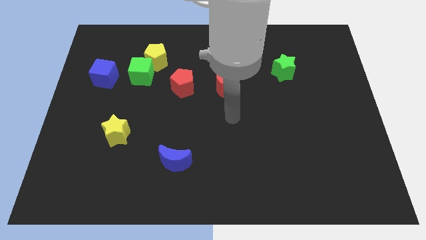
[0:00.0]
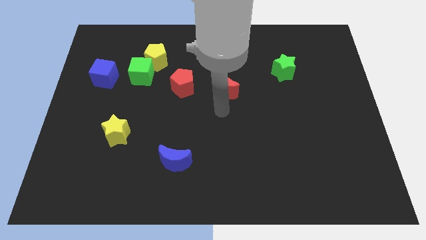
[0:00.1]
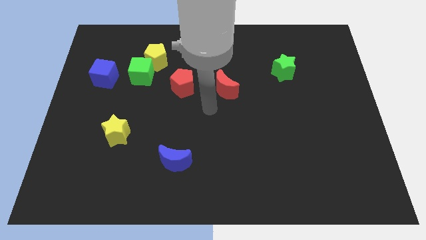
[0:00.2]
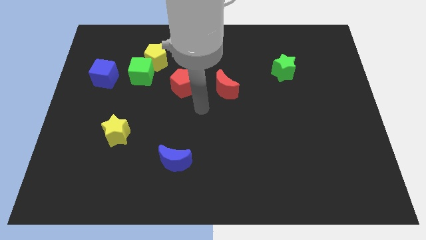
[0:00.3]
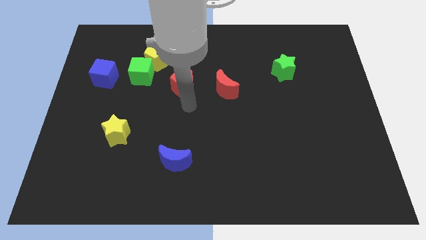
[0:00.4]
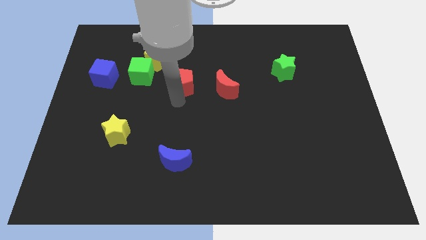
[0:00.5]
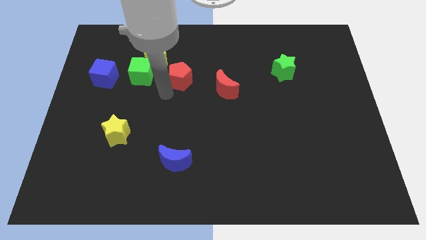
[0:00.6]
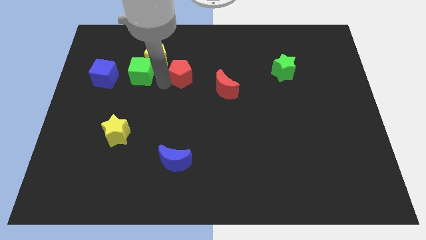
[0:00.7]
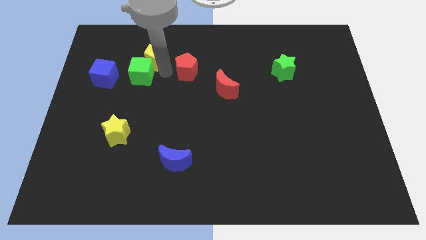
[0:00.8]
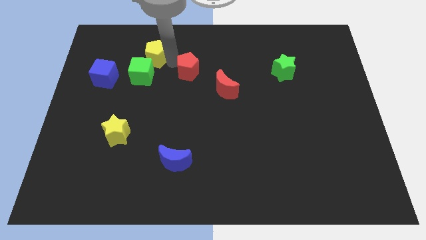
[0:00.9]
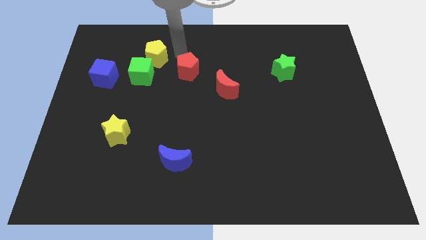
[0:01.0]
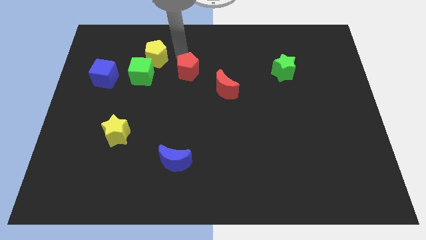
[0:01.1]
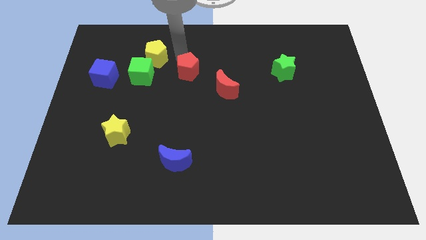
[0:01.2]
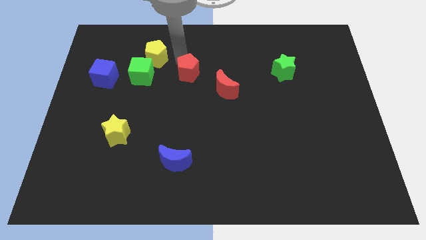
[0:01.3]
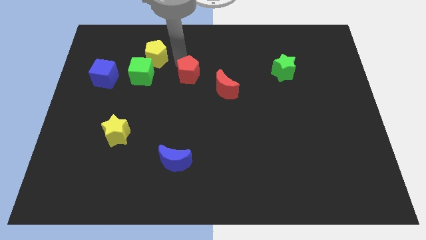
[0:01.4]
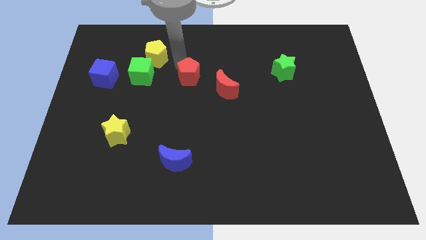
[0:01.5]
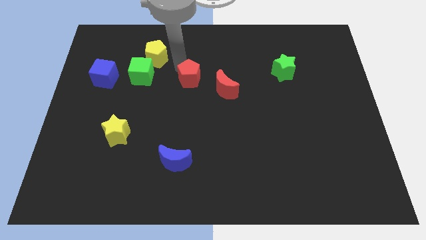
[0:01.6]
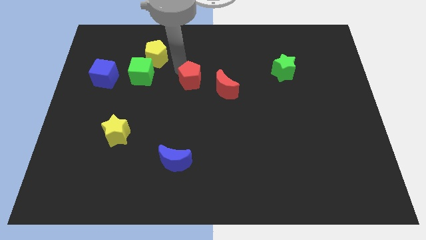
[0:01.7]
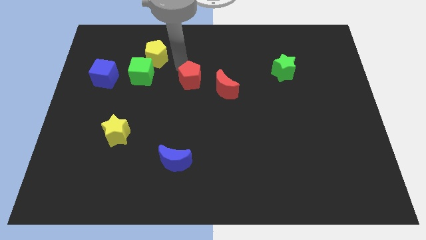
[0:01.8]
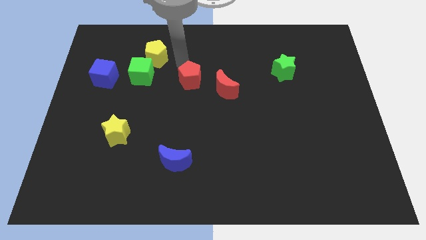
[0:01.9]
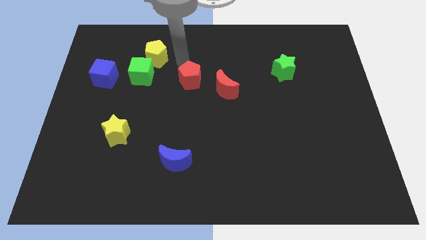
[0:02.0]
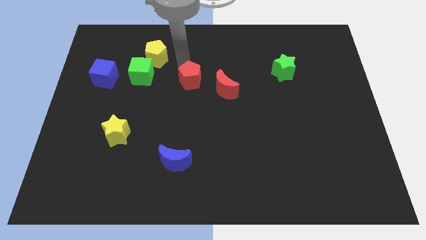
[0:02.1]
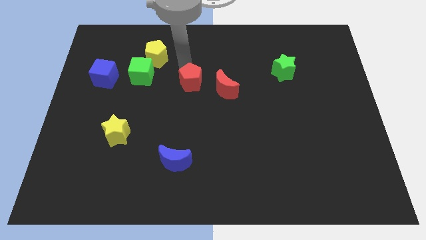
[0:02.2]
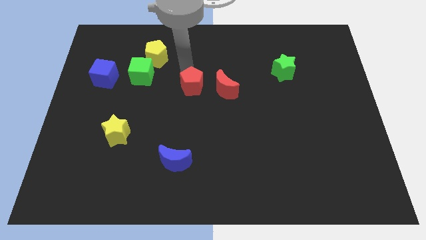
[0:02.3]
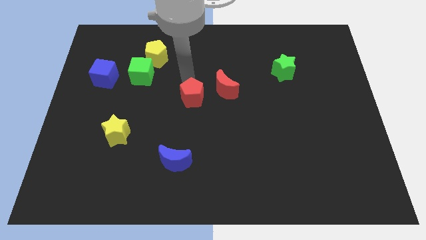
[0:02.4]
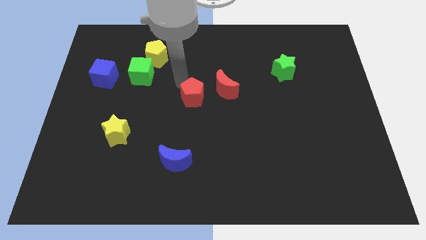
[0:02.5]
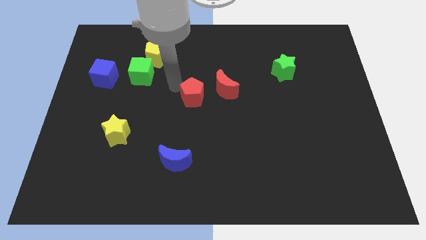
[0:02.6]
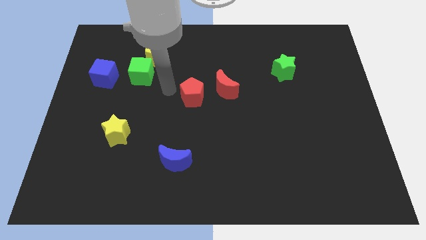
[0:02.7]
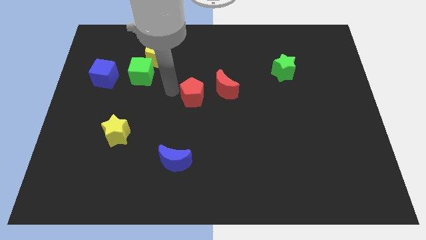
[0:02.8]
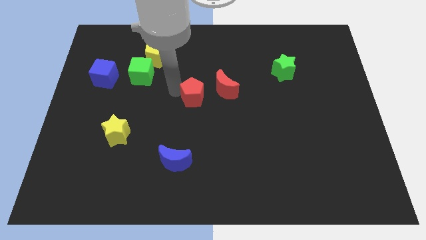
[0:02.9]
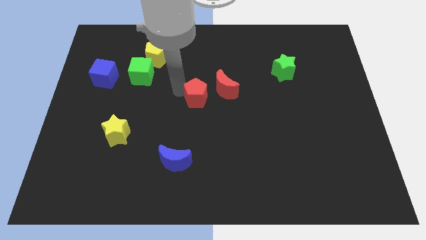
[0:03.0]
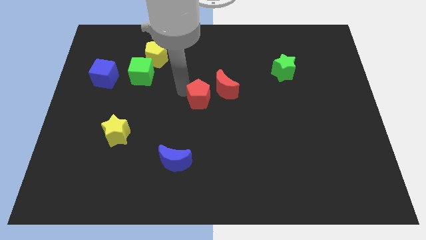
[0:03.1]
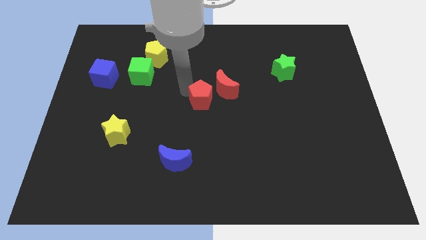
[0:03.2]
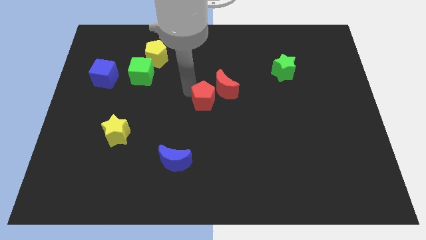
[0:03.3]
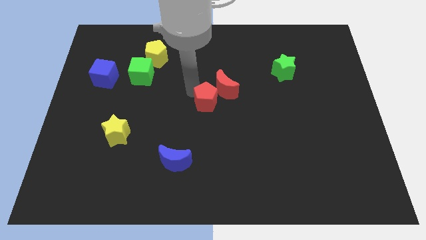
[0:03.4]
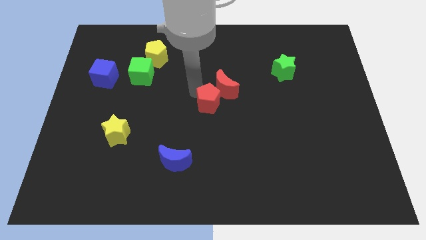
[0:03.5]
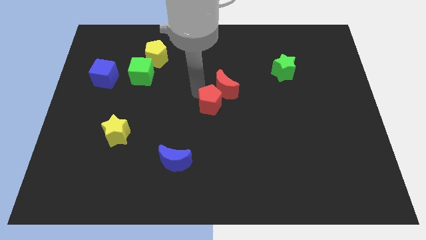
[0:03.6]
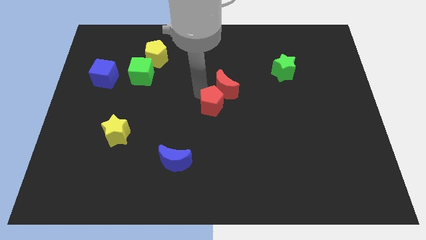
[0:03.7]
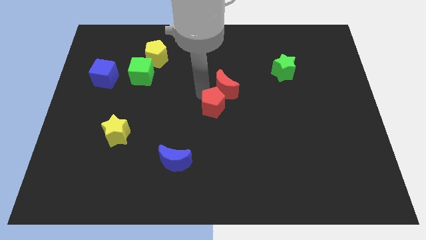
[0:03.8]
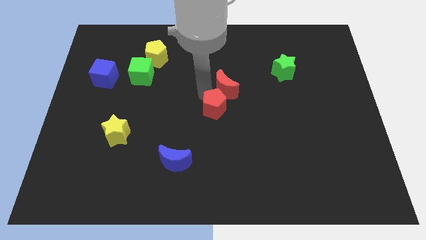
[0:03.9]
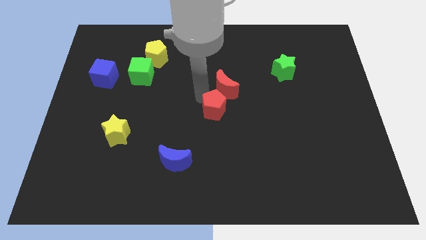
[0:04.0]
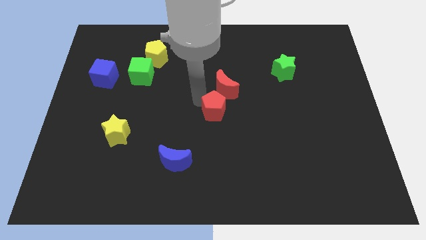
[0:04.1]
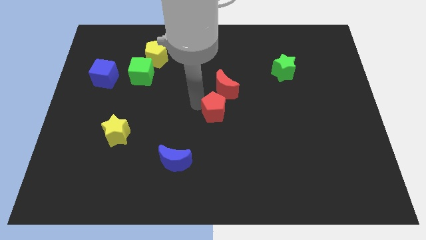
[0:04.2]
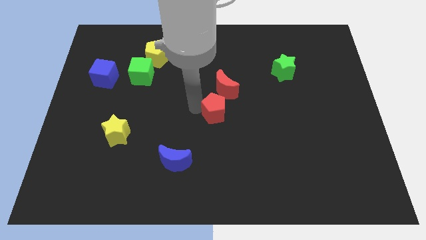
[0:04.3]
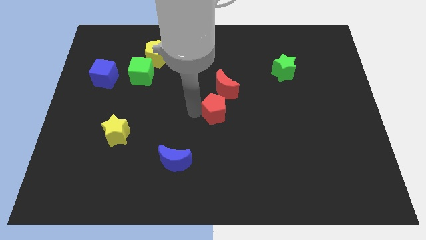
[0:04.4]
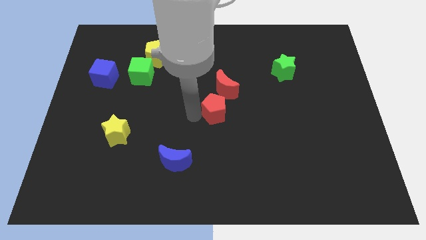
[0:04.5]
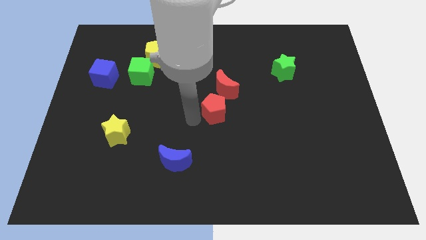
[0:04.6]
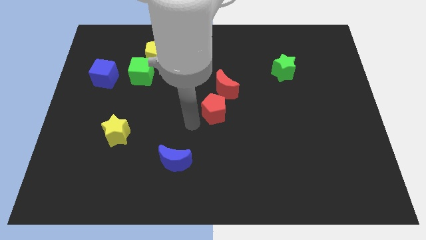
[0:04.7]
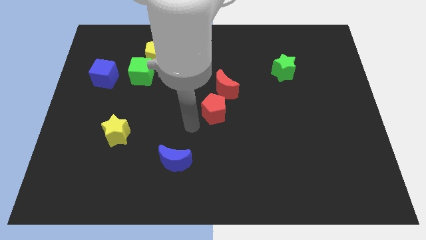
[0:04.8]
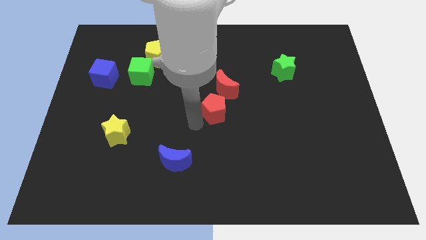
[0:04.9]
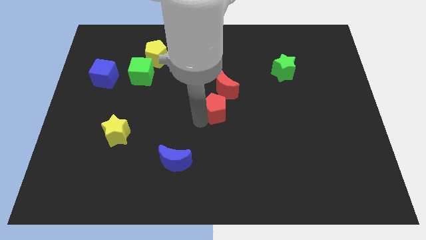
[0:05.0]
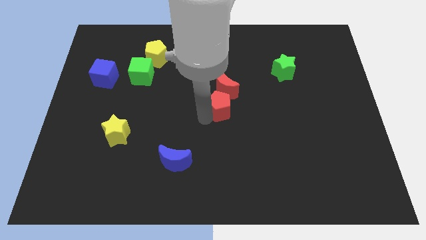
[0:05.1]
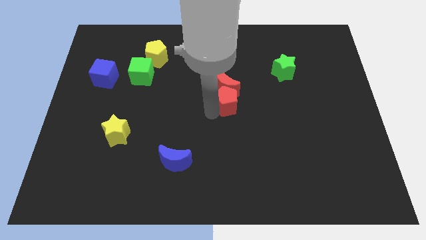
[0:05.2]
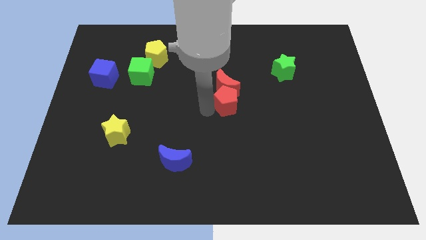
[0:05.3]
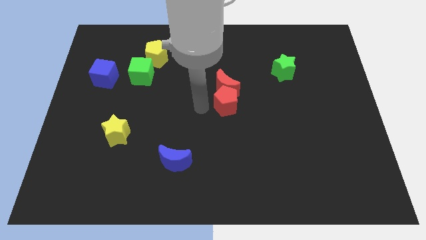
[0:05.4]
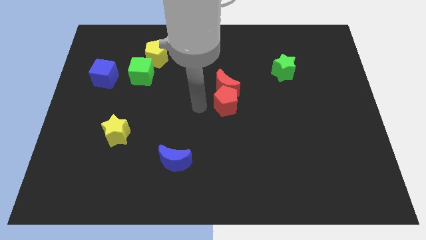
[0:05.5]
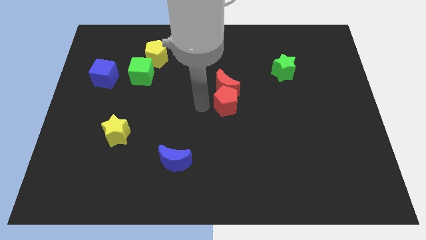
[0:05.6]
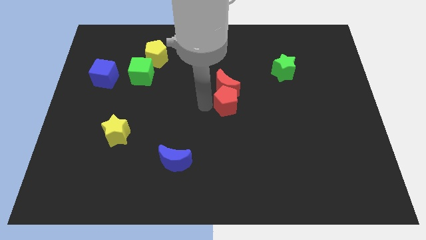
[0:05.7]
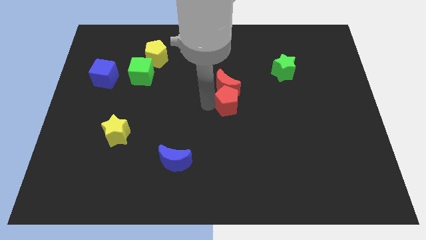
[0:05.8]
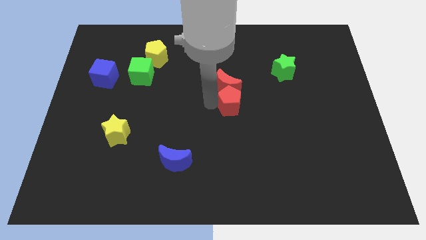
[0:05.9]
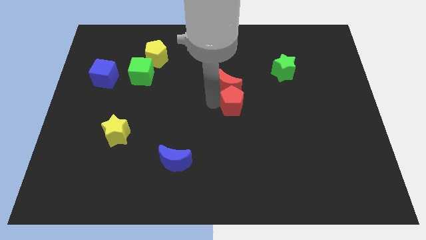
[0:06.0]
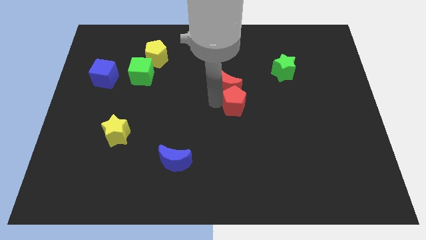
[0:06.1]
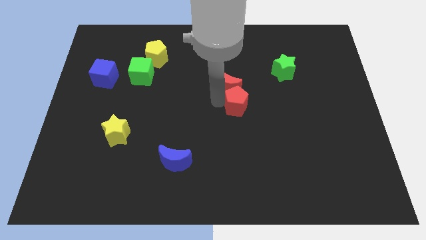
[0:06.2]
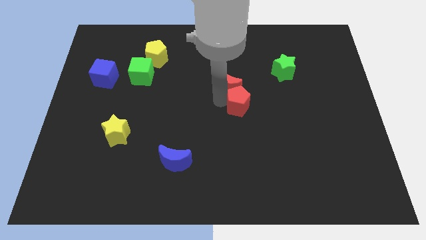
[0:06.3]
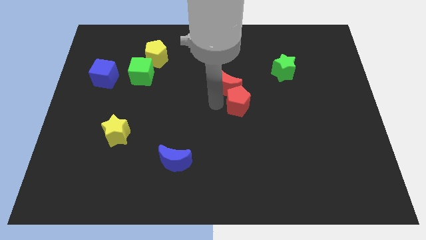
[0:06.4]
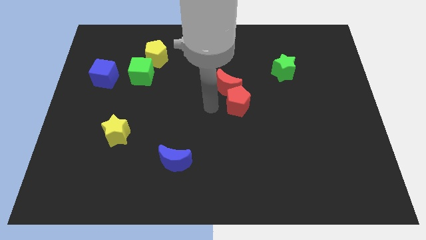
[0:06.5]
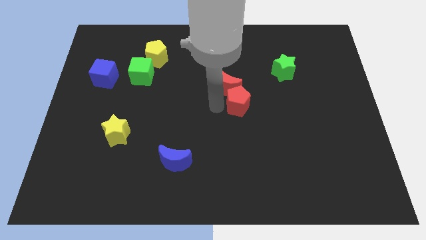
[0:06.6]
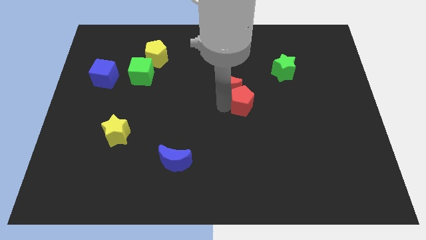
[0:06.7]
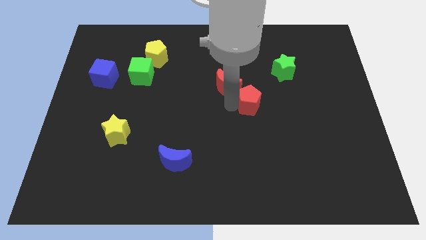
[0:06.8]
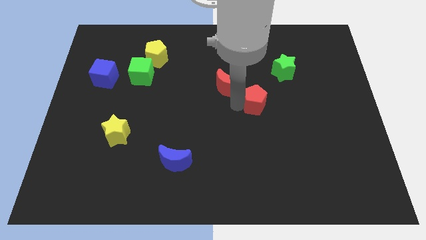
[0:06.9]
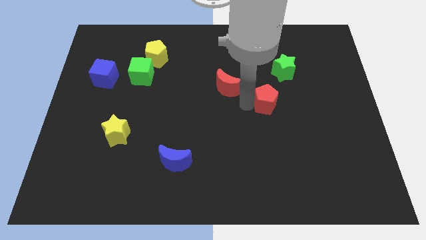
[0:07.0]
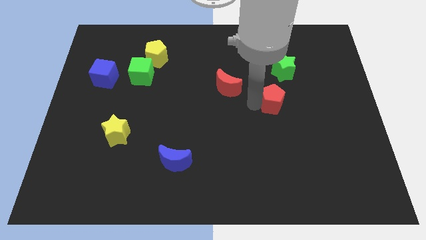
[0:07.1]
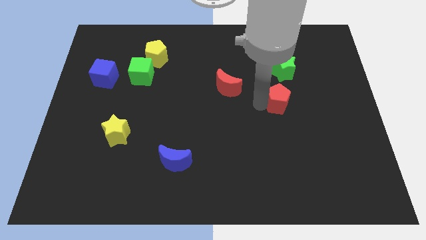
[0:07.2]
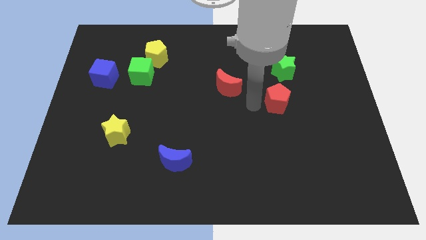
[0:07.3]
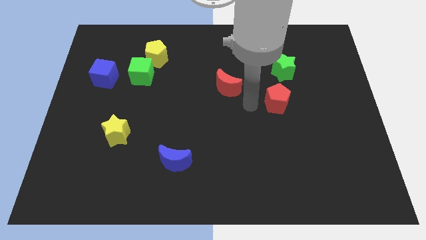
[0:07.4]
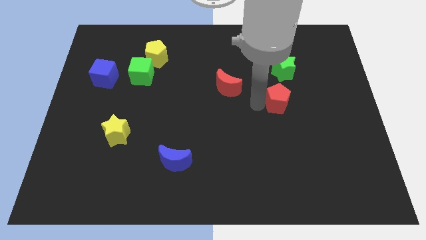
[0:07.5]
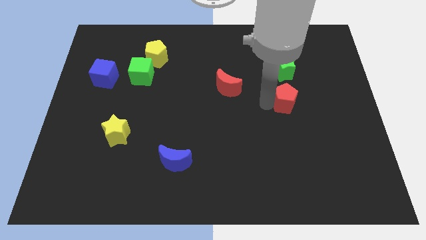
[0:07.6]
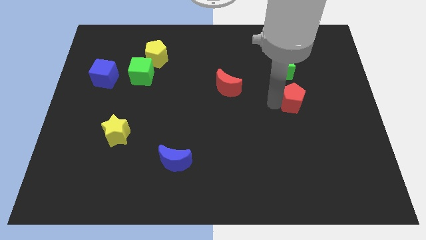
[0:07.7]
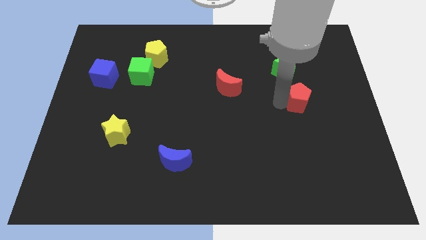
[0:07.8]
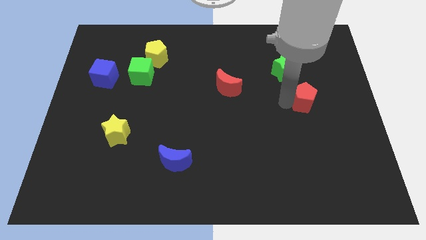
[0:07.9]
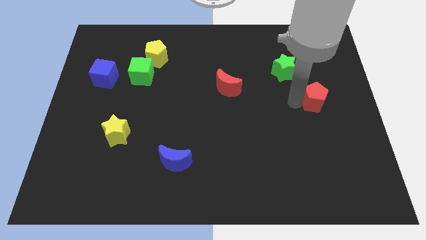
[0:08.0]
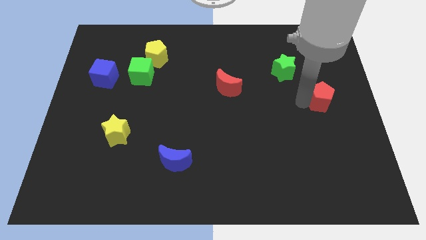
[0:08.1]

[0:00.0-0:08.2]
move the red pentagon to the right side of the board
